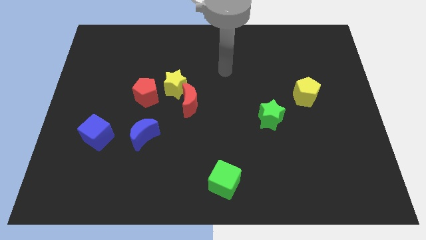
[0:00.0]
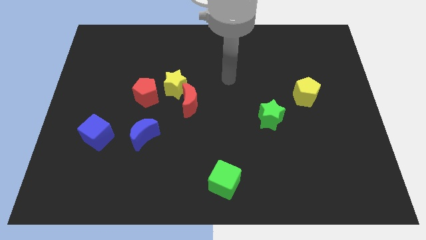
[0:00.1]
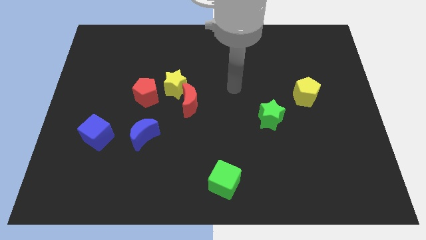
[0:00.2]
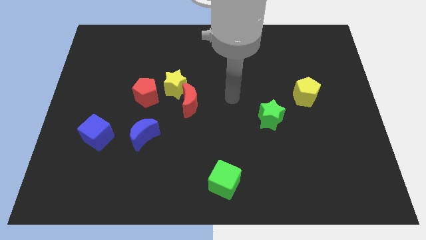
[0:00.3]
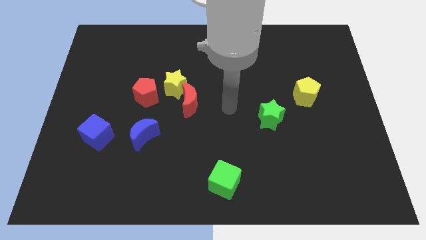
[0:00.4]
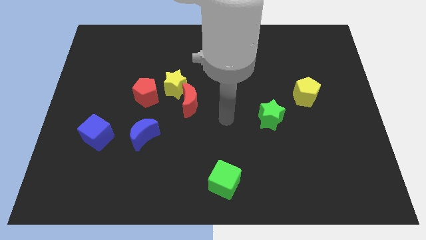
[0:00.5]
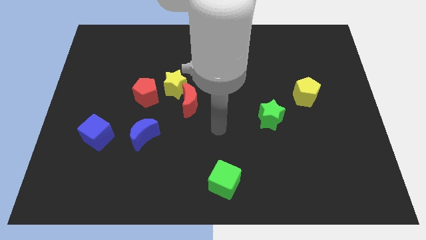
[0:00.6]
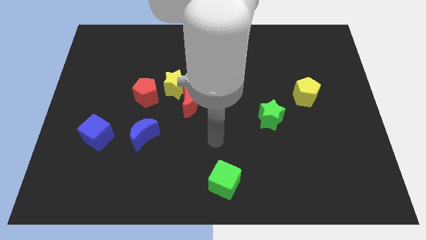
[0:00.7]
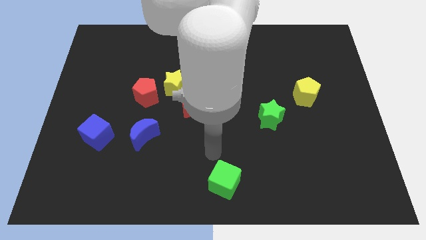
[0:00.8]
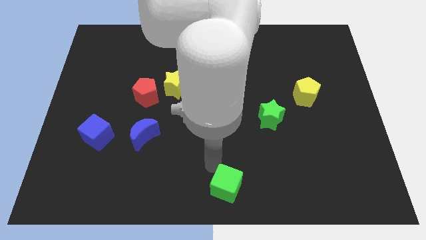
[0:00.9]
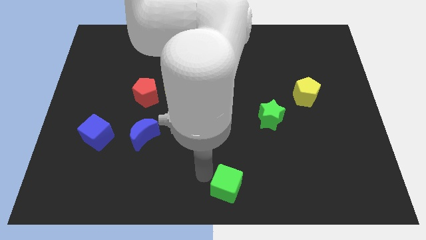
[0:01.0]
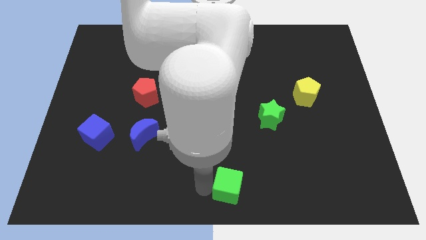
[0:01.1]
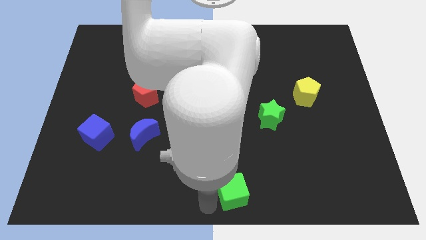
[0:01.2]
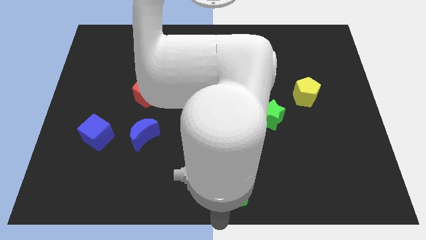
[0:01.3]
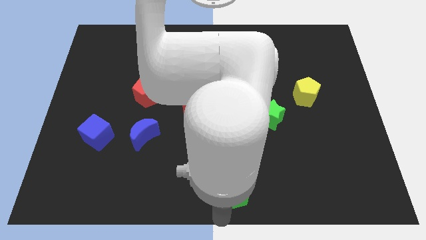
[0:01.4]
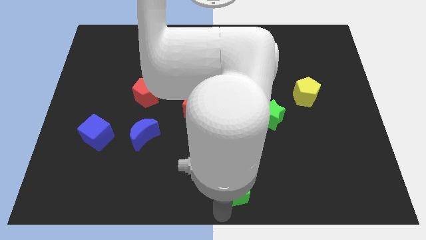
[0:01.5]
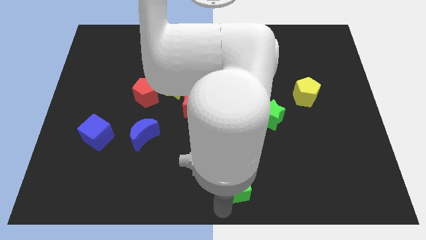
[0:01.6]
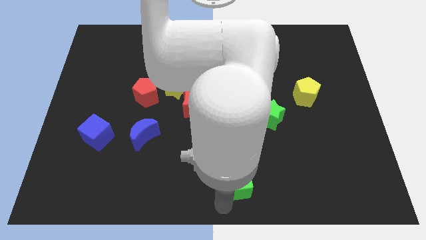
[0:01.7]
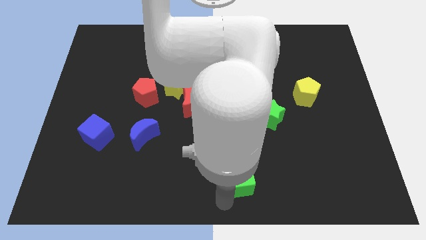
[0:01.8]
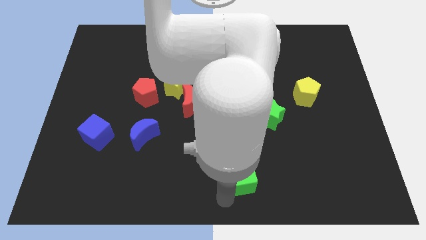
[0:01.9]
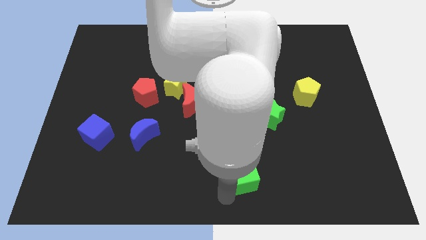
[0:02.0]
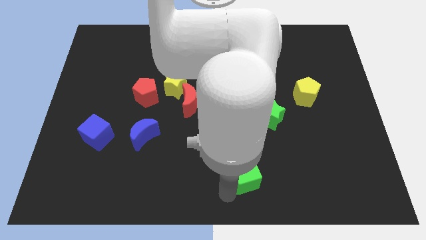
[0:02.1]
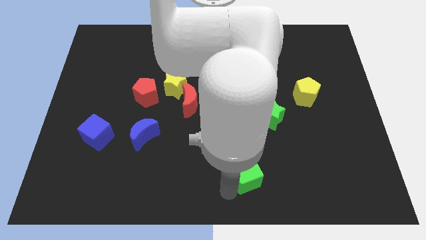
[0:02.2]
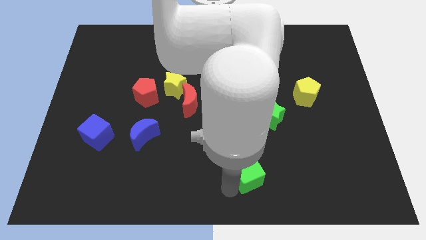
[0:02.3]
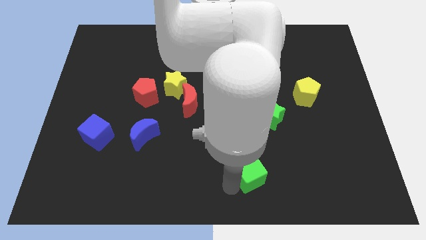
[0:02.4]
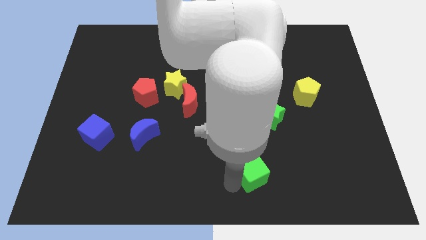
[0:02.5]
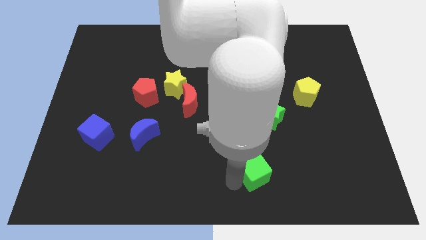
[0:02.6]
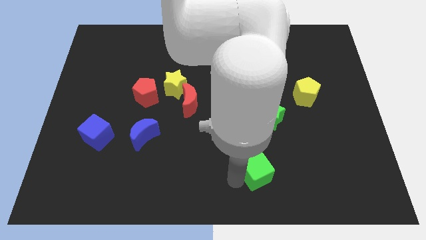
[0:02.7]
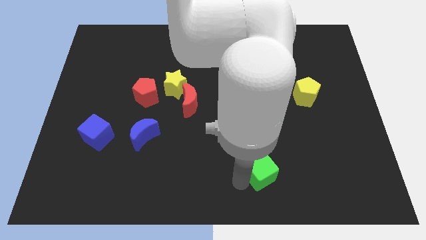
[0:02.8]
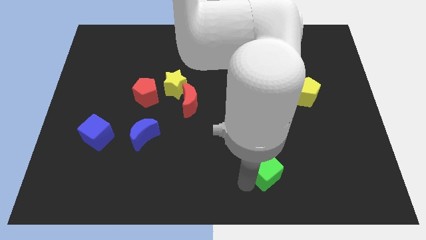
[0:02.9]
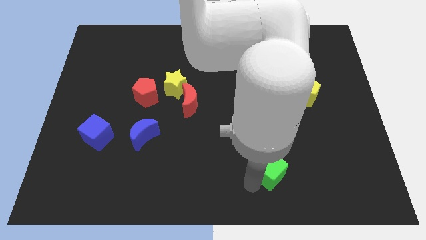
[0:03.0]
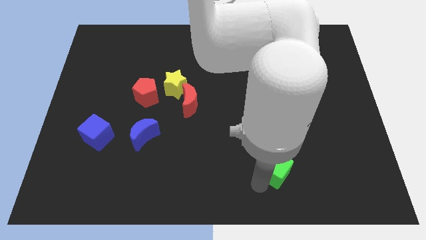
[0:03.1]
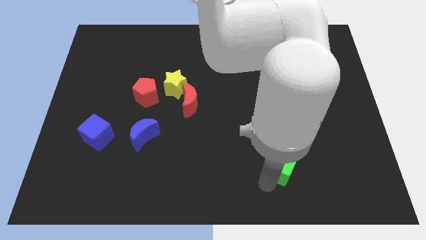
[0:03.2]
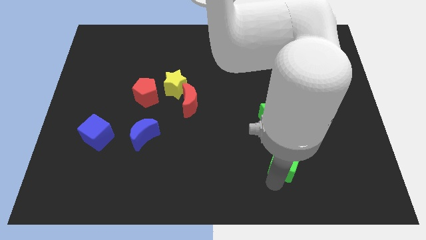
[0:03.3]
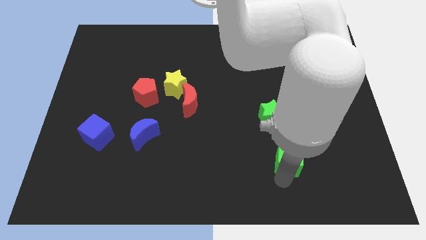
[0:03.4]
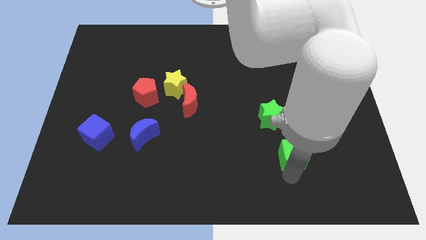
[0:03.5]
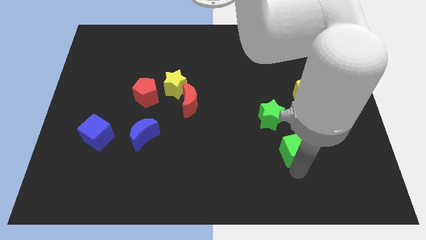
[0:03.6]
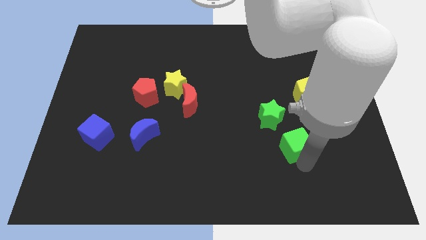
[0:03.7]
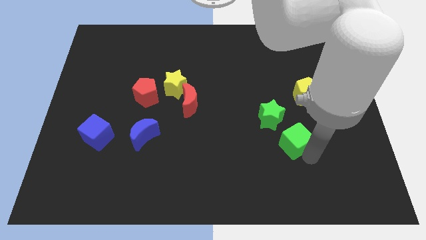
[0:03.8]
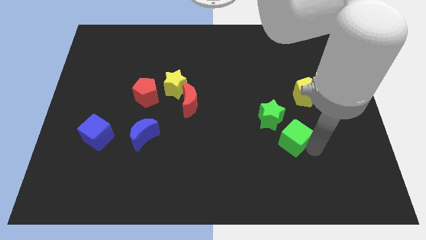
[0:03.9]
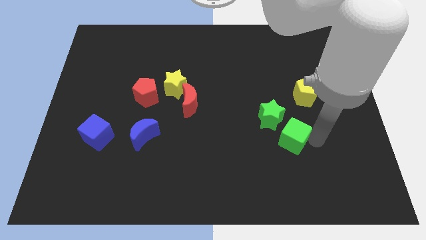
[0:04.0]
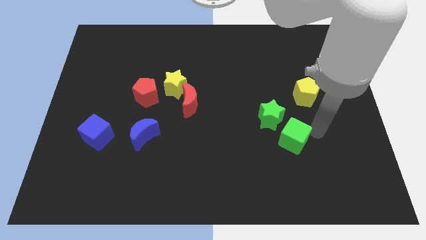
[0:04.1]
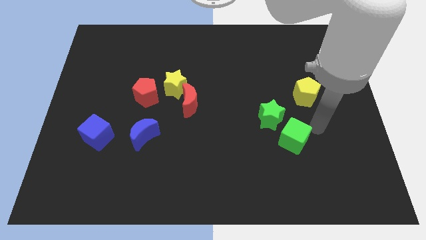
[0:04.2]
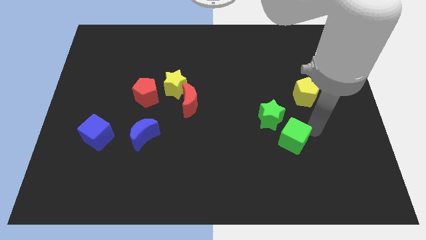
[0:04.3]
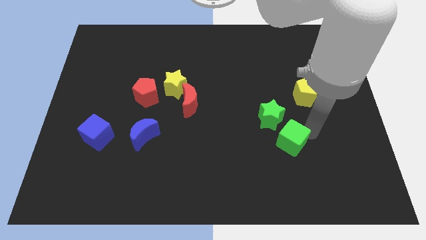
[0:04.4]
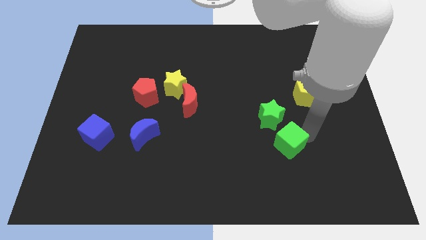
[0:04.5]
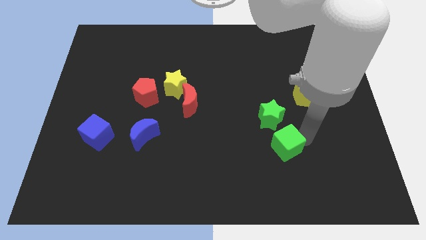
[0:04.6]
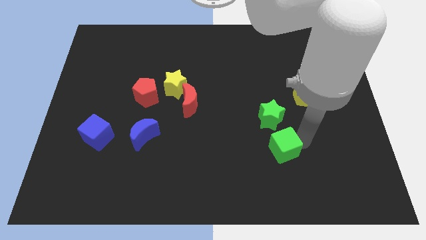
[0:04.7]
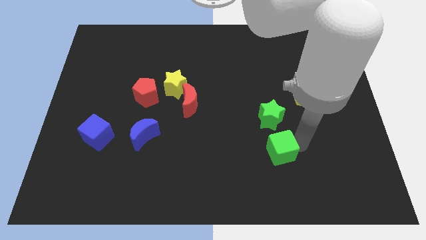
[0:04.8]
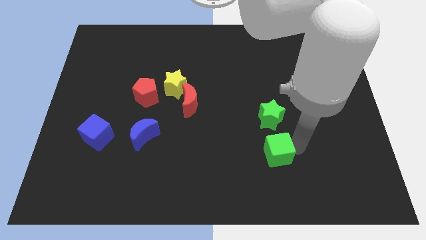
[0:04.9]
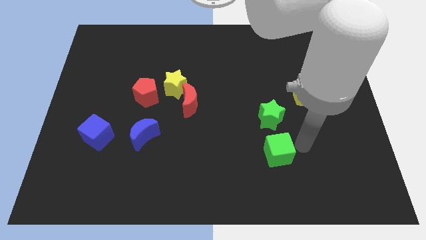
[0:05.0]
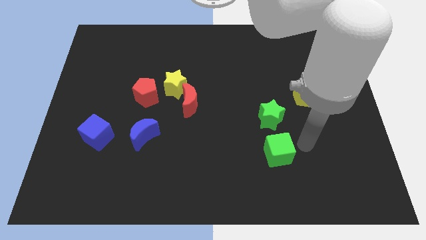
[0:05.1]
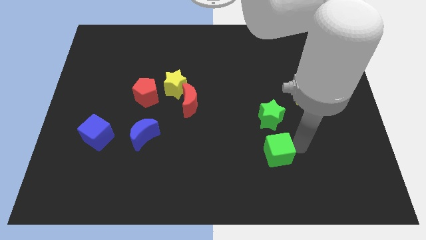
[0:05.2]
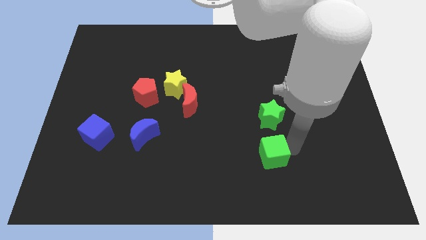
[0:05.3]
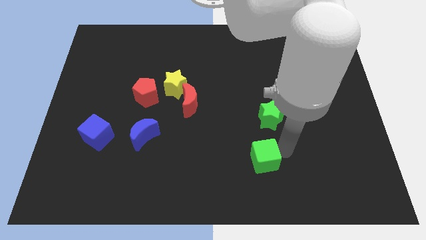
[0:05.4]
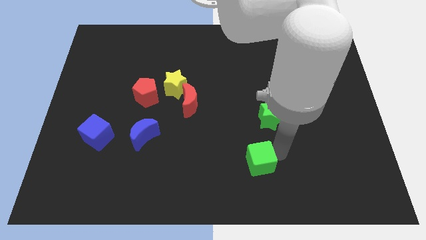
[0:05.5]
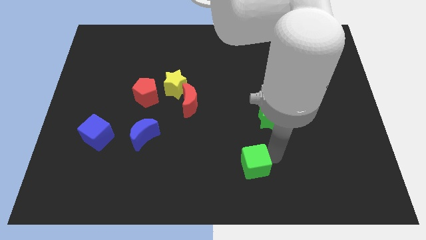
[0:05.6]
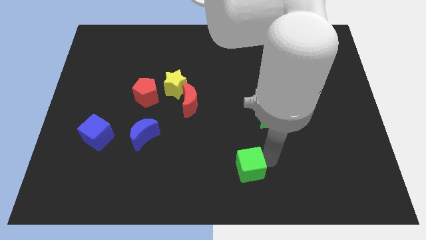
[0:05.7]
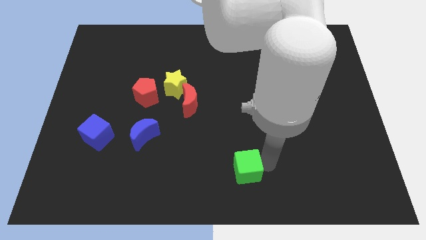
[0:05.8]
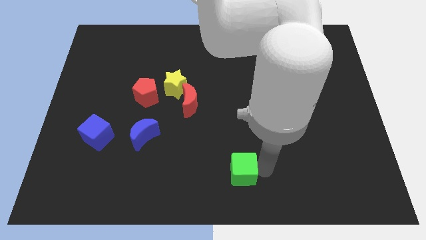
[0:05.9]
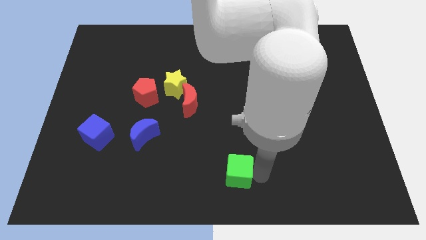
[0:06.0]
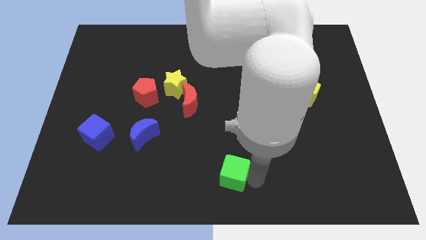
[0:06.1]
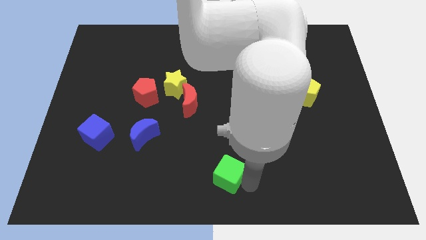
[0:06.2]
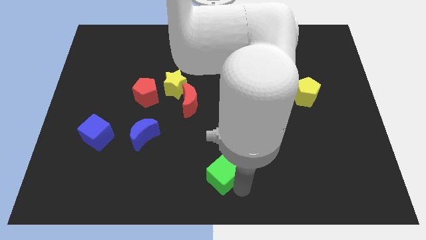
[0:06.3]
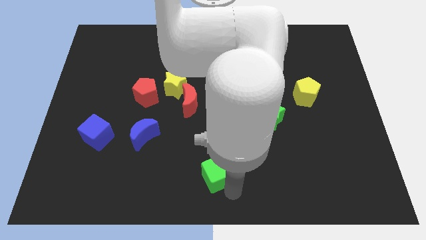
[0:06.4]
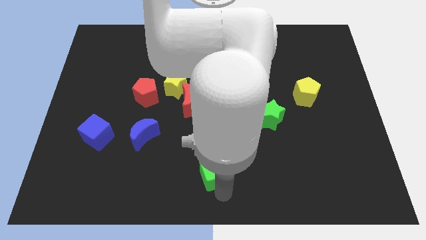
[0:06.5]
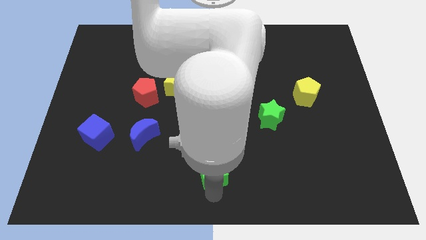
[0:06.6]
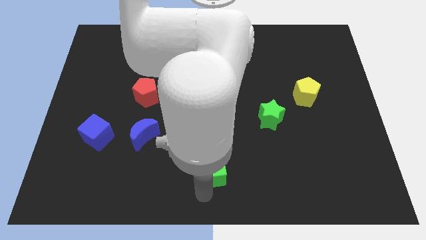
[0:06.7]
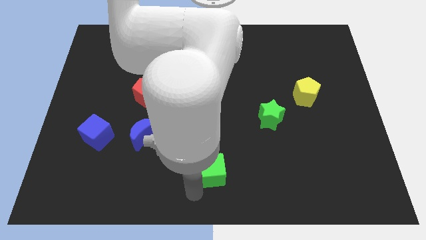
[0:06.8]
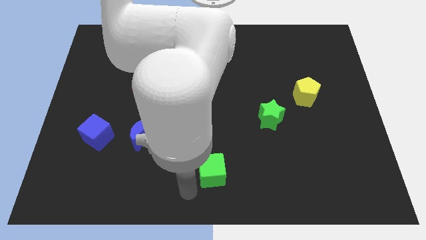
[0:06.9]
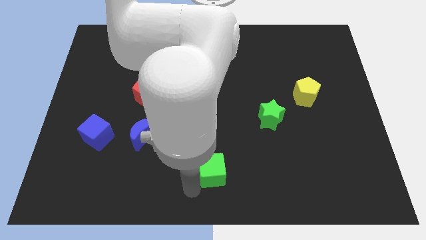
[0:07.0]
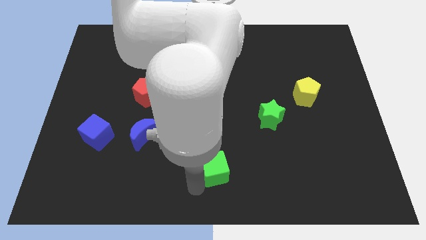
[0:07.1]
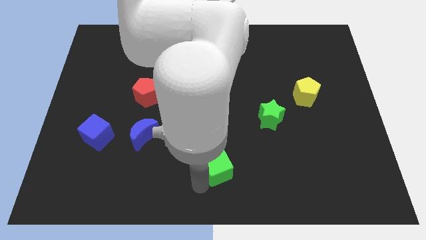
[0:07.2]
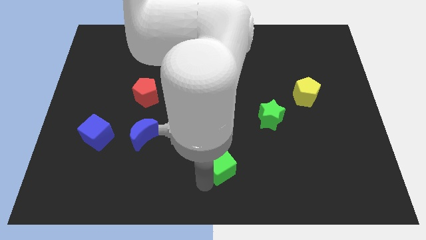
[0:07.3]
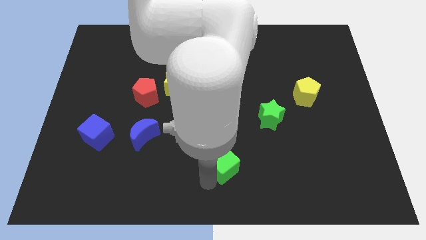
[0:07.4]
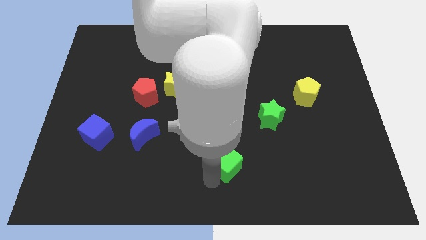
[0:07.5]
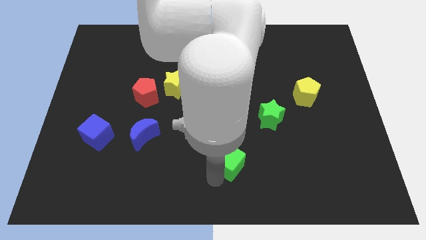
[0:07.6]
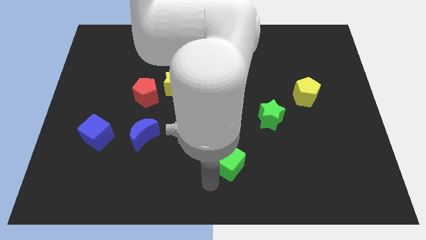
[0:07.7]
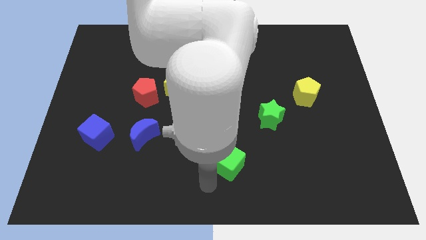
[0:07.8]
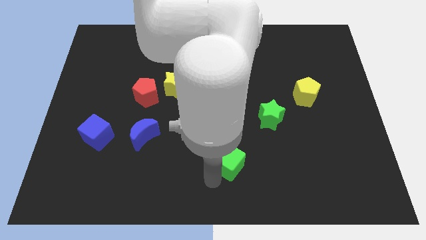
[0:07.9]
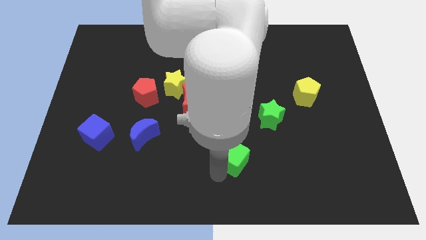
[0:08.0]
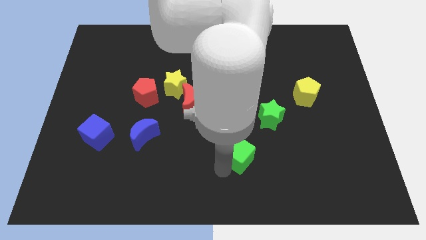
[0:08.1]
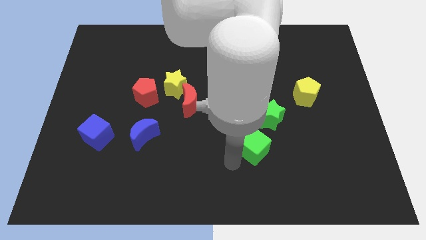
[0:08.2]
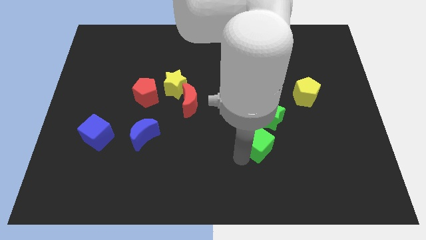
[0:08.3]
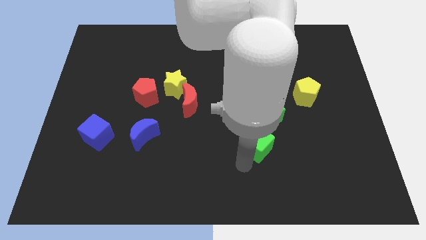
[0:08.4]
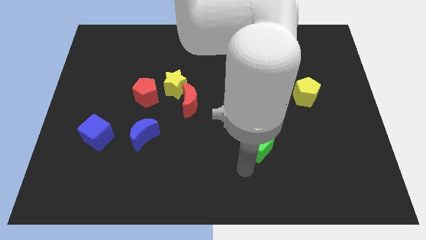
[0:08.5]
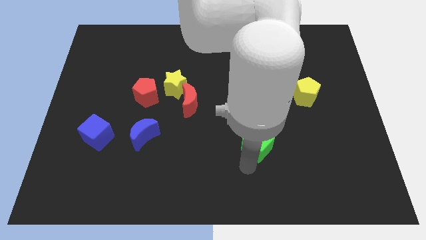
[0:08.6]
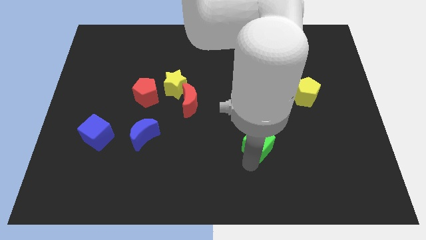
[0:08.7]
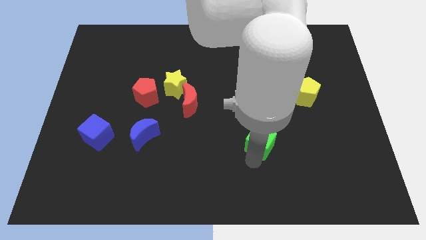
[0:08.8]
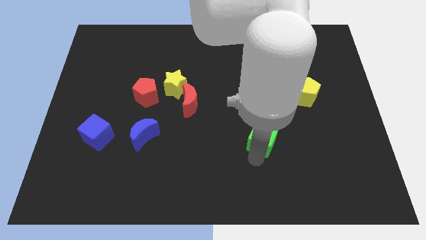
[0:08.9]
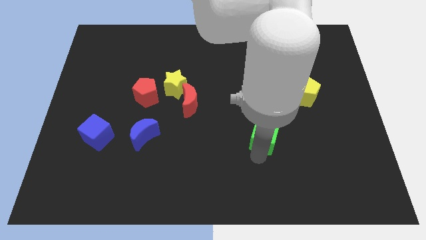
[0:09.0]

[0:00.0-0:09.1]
push the green cube to the green star
